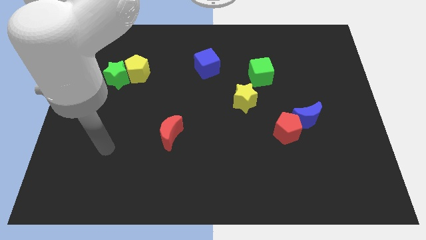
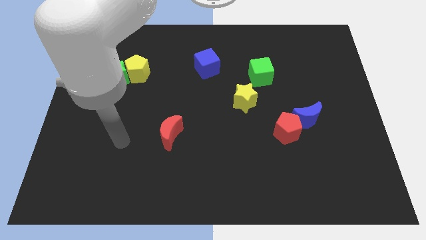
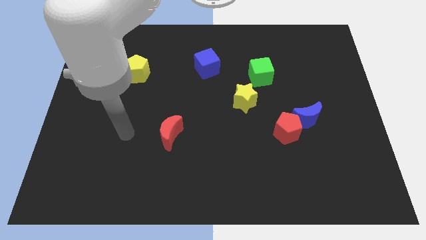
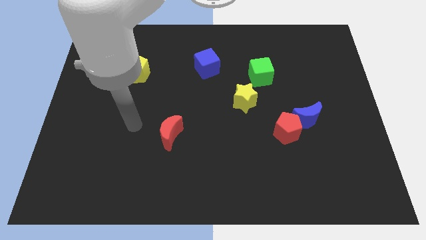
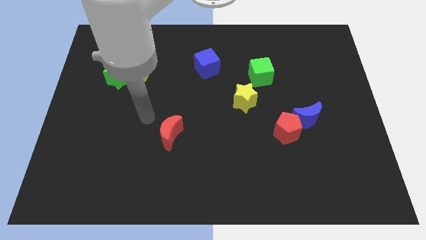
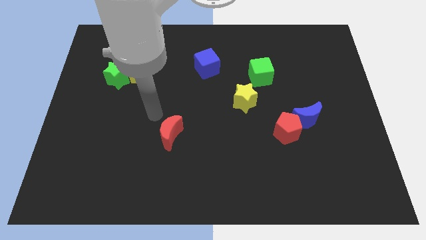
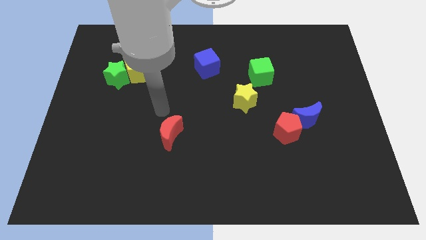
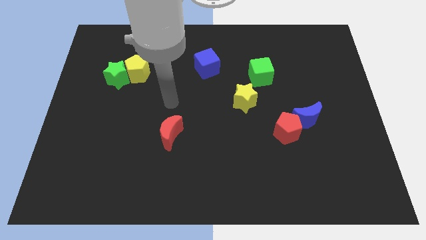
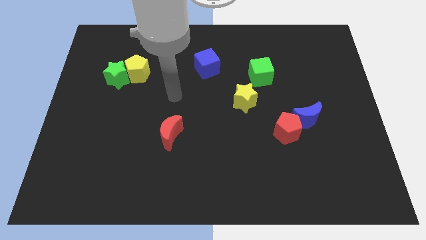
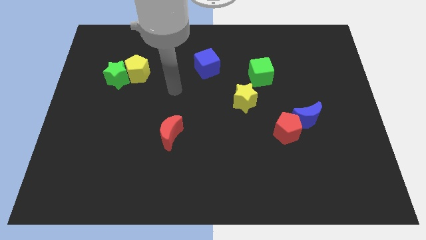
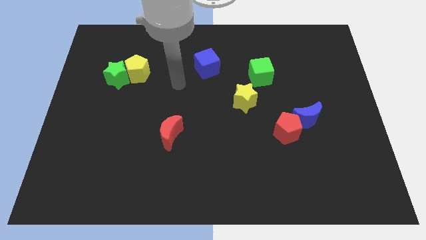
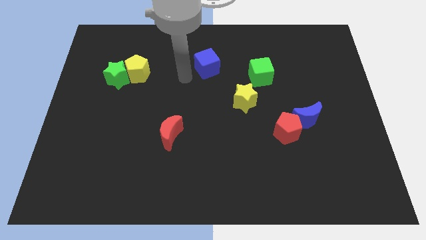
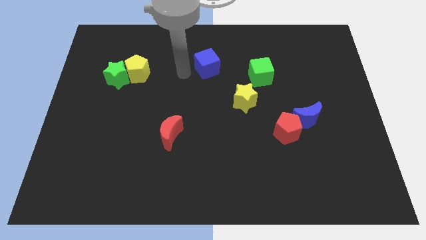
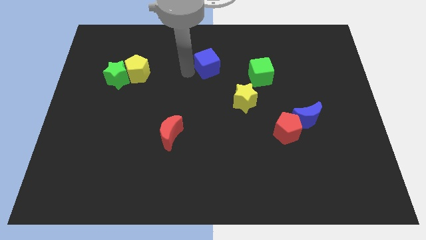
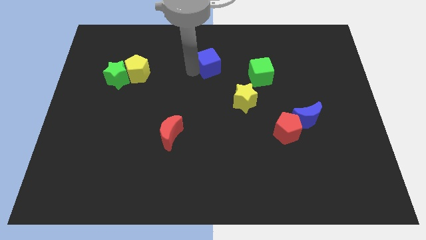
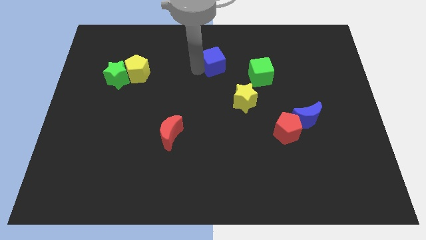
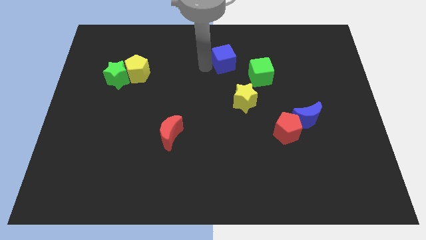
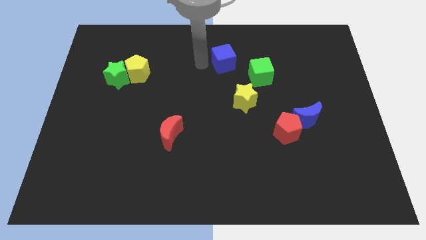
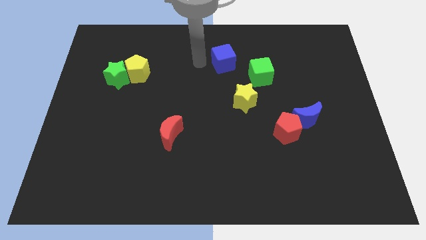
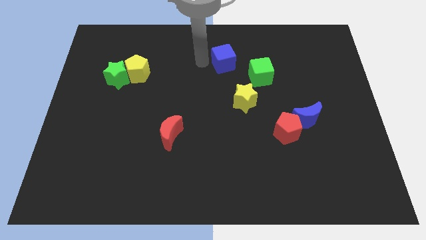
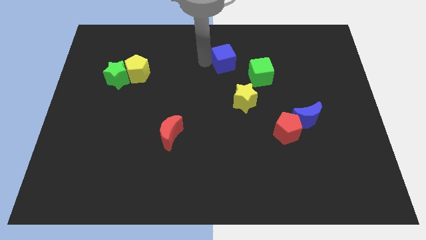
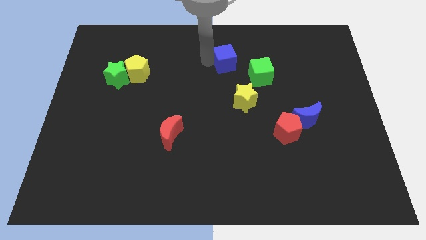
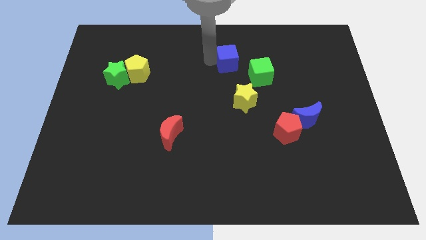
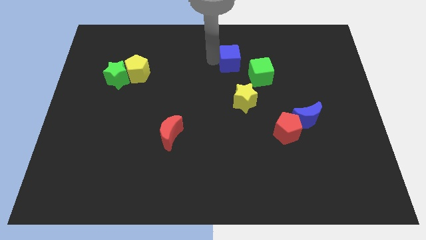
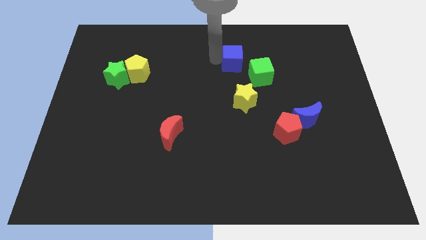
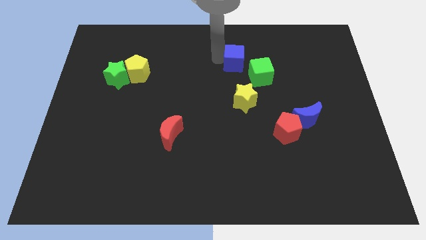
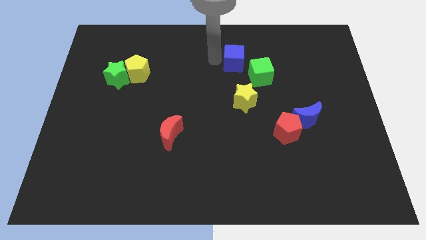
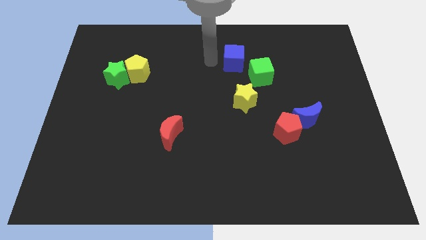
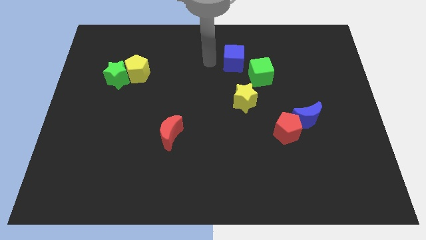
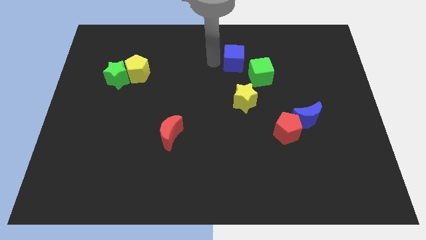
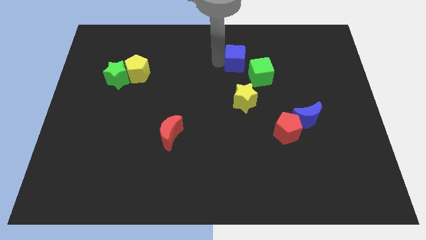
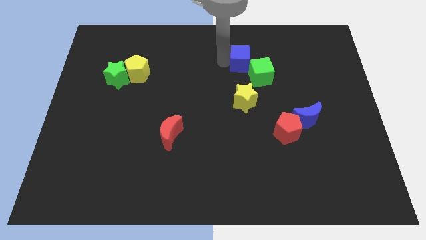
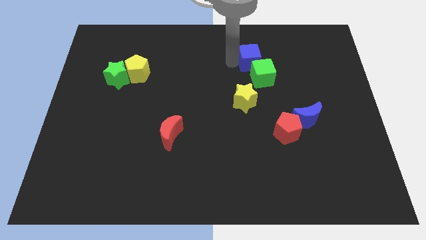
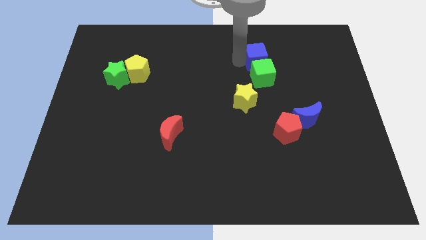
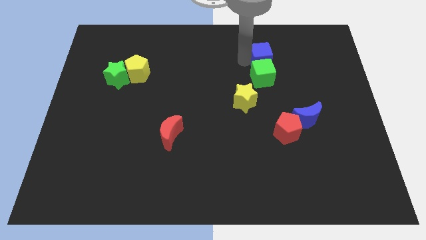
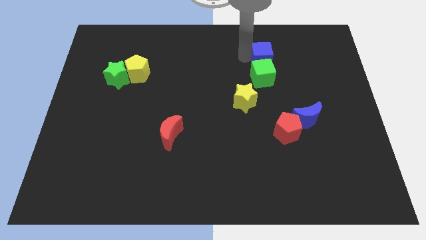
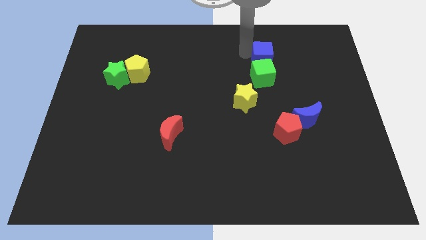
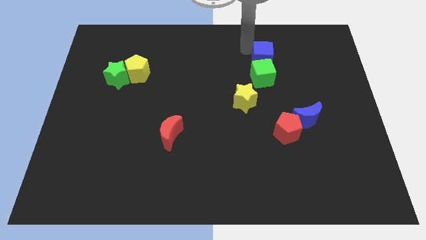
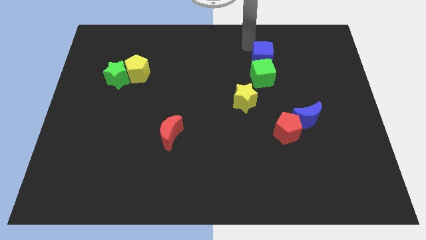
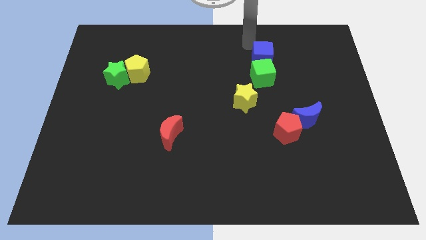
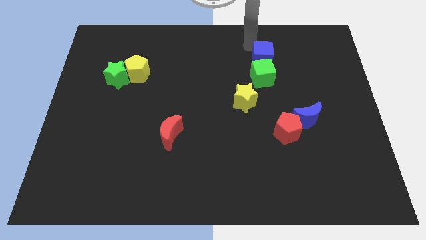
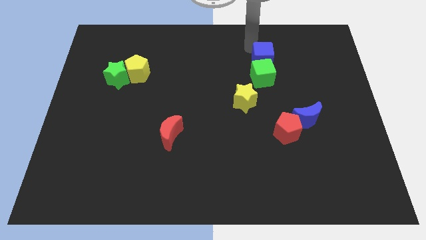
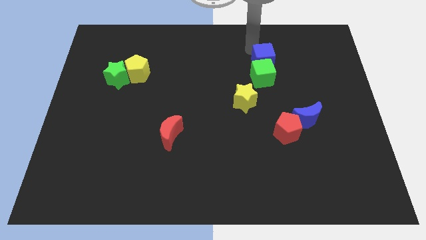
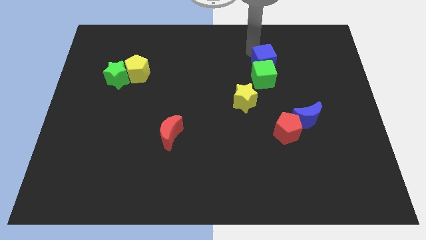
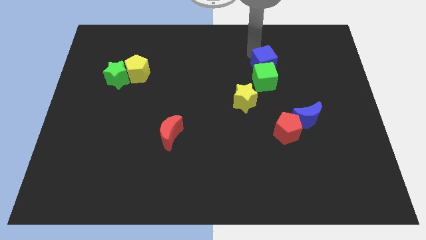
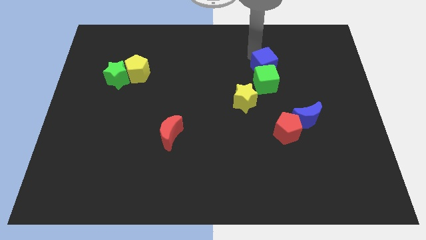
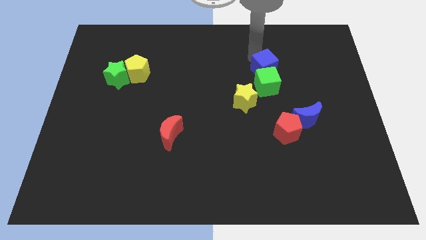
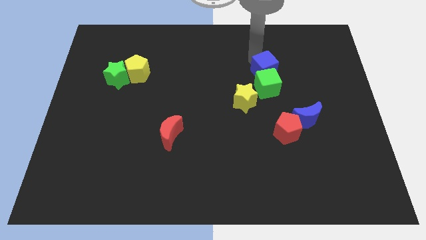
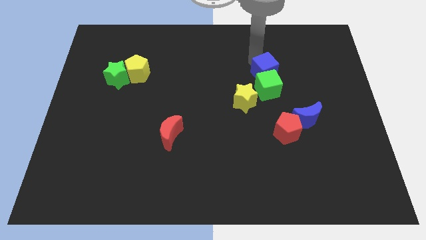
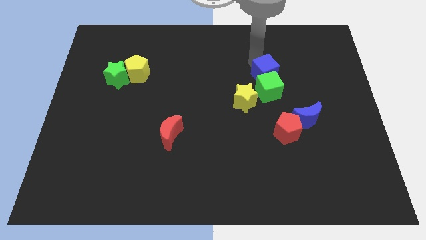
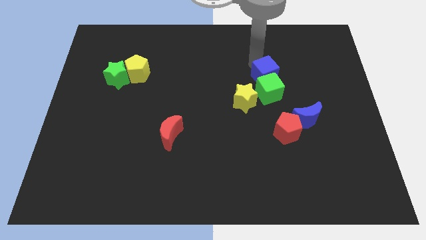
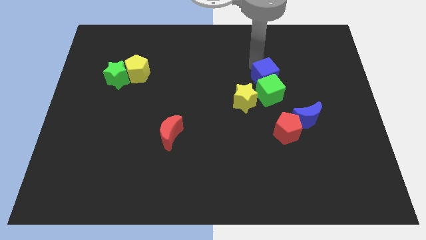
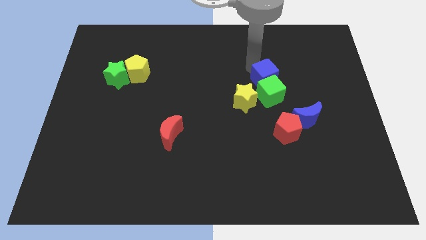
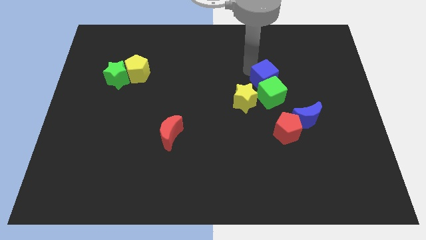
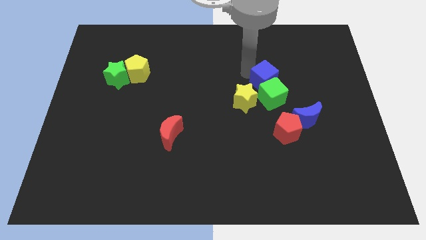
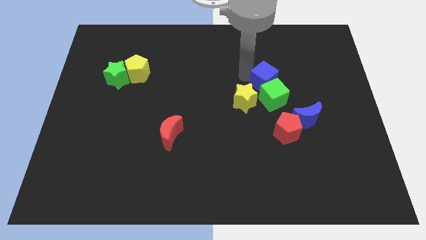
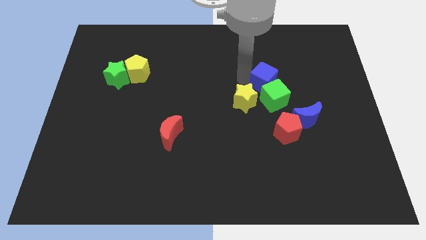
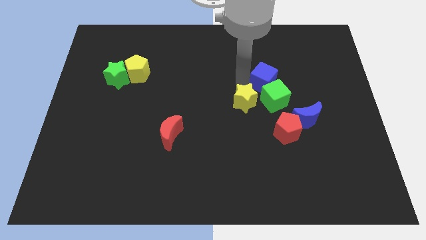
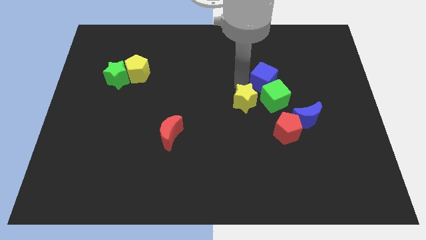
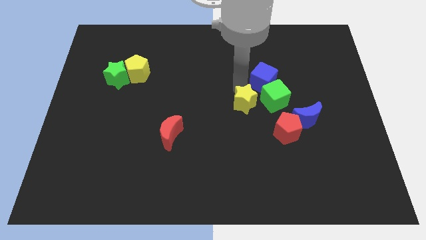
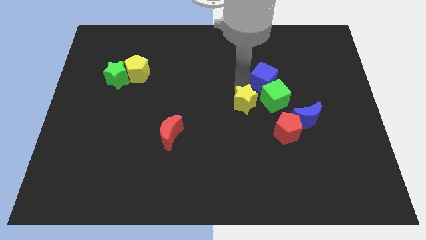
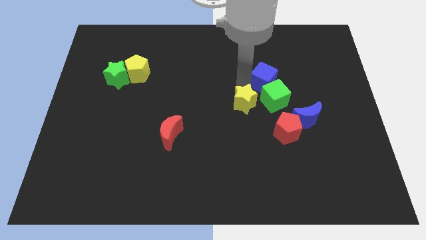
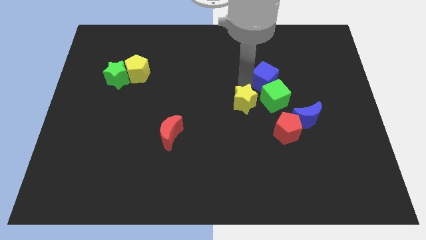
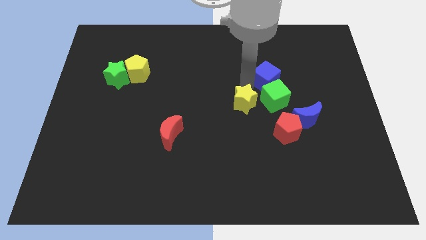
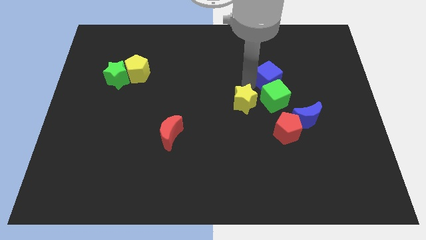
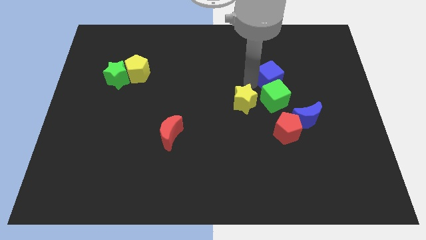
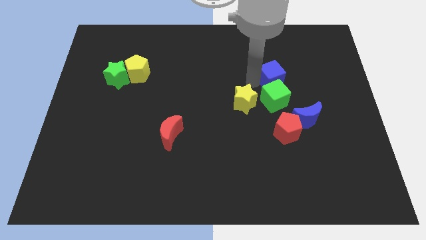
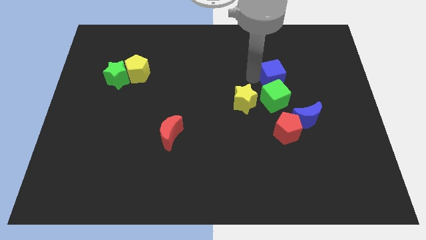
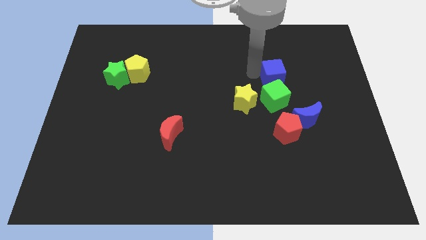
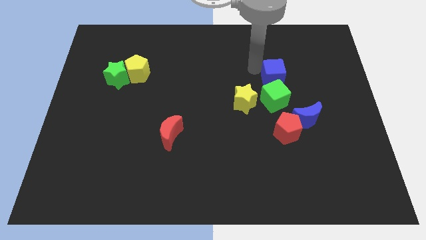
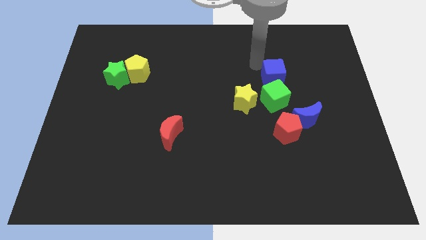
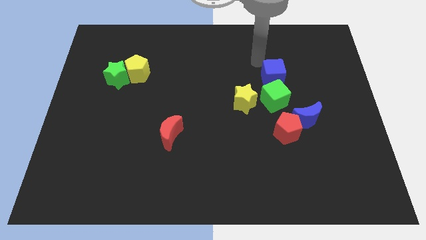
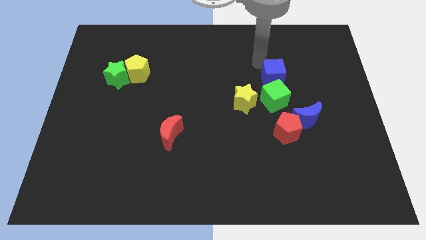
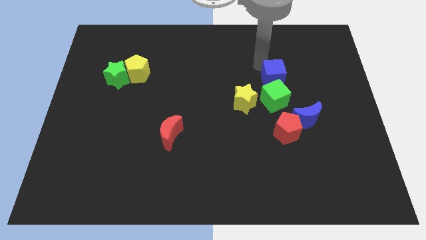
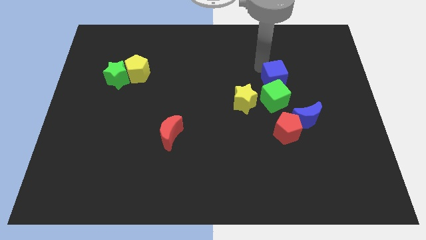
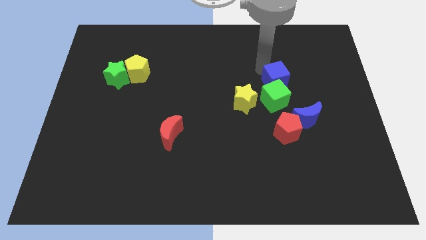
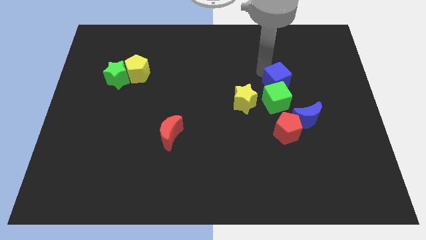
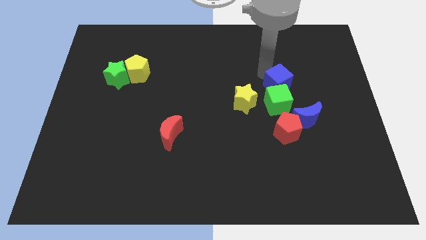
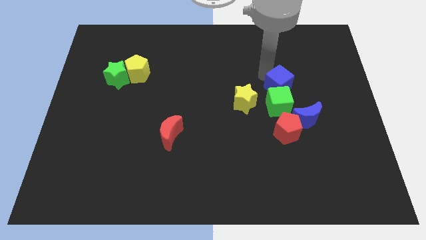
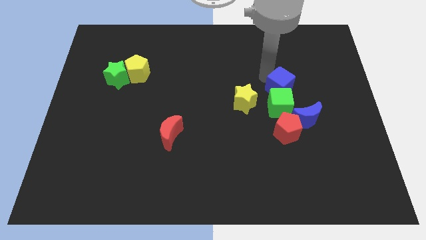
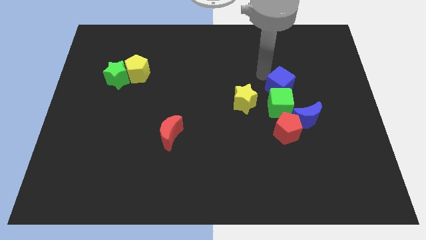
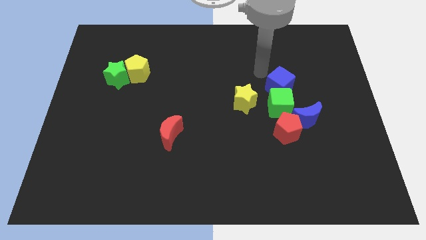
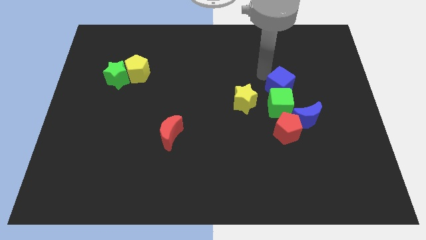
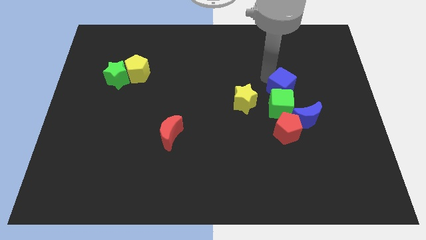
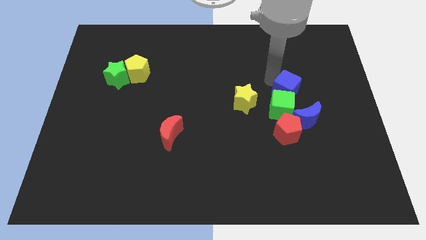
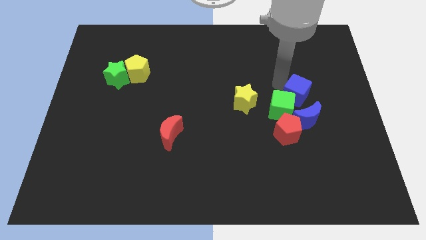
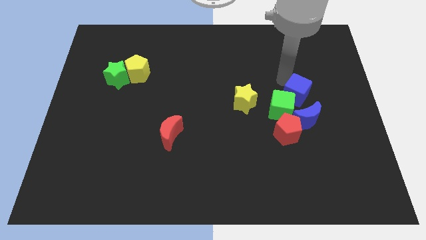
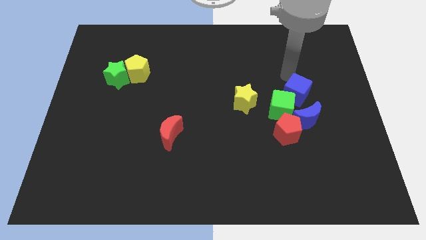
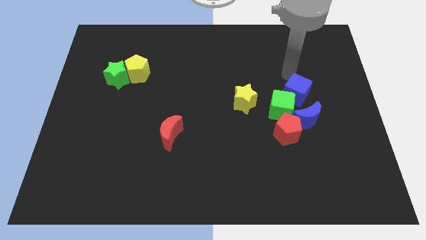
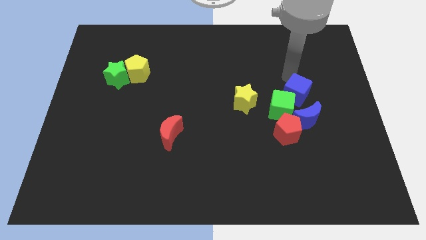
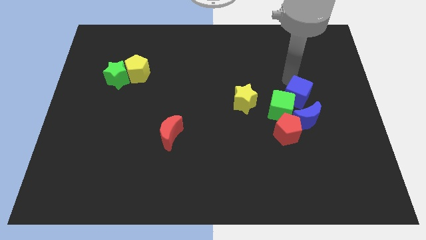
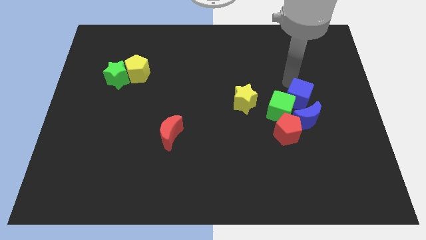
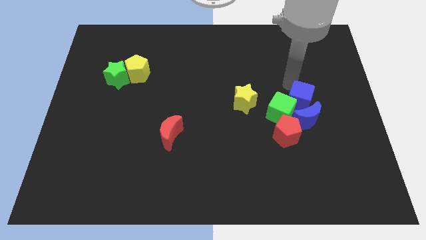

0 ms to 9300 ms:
move the blue cube next to the blue moon
